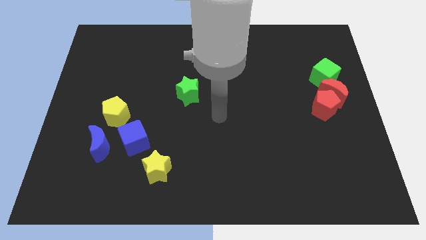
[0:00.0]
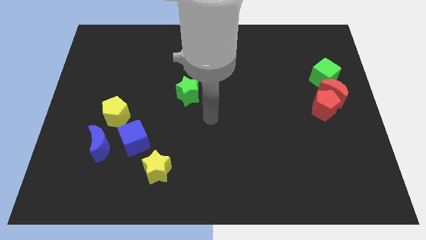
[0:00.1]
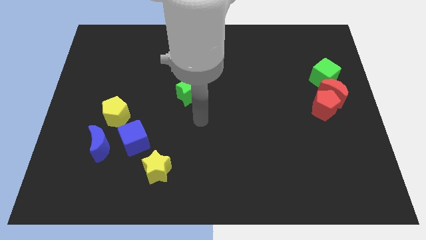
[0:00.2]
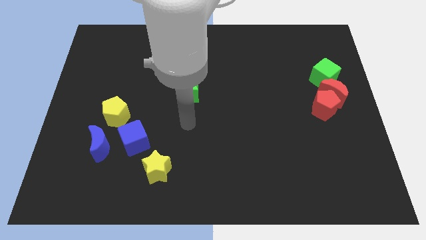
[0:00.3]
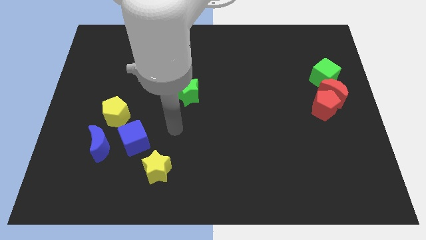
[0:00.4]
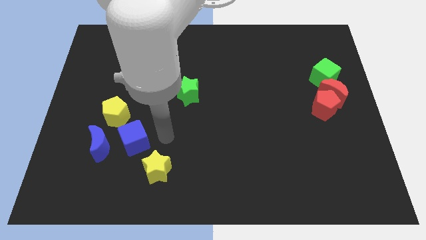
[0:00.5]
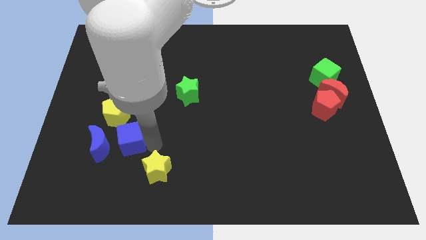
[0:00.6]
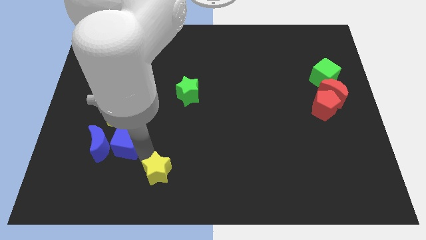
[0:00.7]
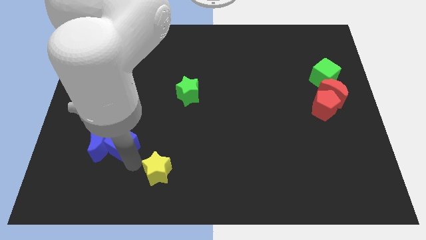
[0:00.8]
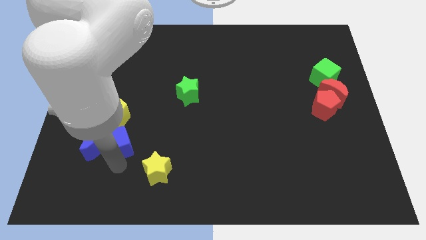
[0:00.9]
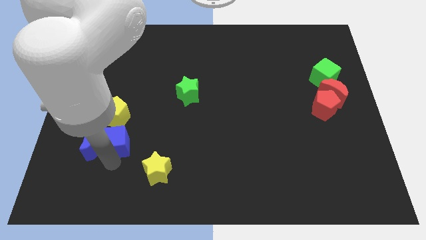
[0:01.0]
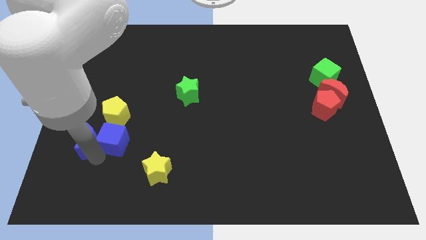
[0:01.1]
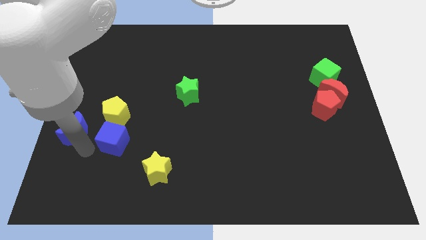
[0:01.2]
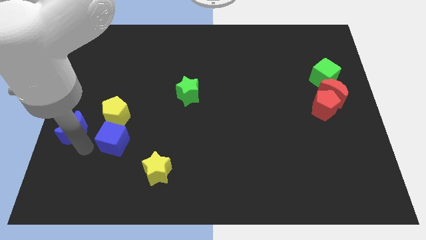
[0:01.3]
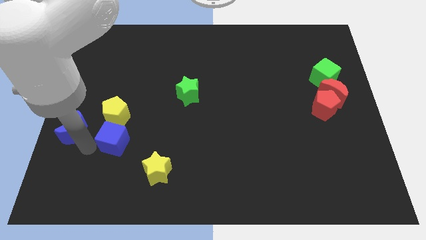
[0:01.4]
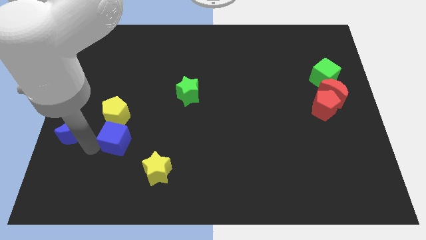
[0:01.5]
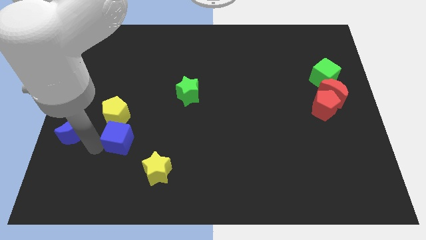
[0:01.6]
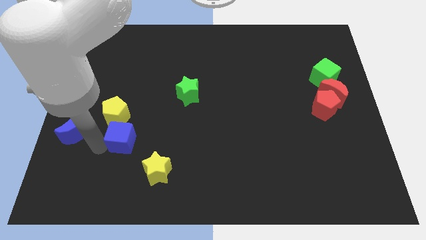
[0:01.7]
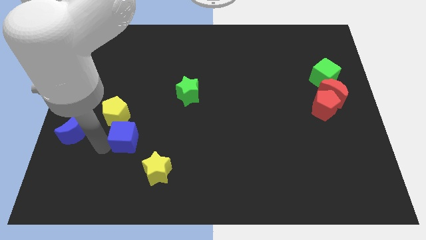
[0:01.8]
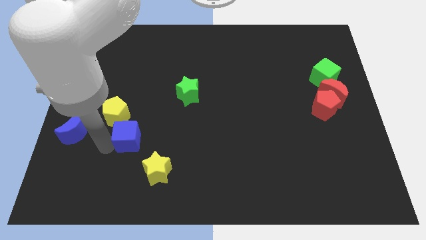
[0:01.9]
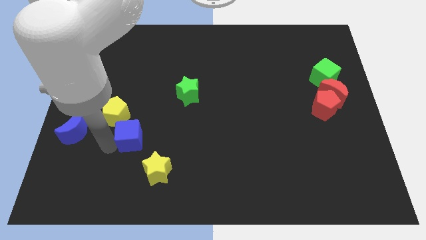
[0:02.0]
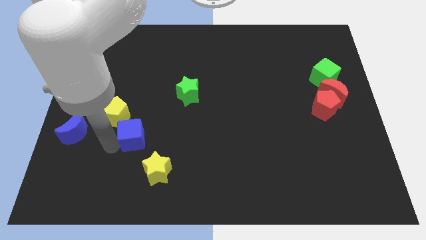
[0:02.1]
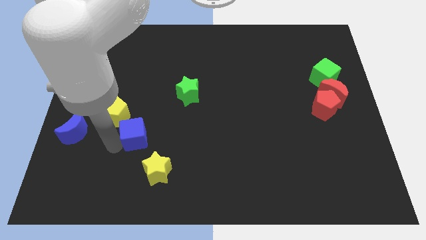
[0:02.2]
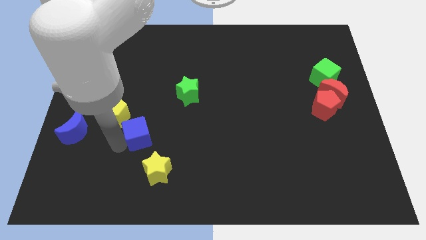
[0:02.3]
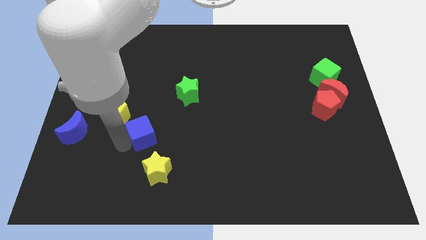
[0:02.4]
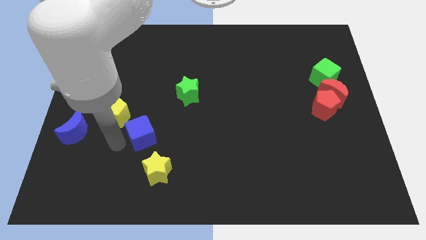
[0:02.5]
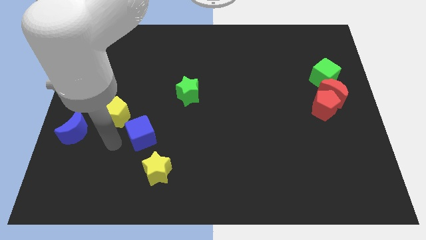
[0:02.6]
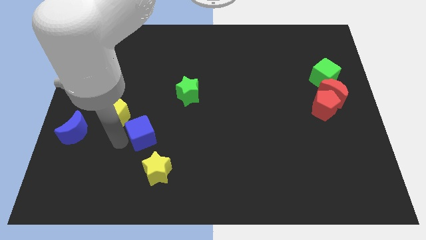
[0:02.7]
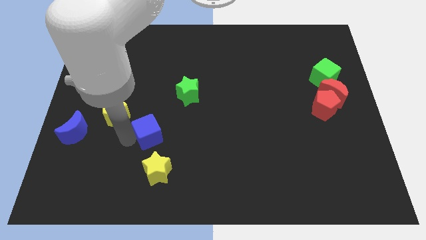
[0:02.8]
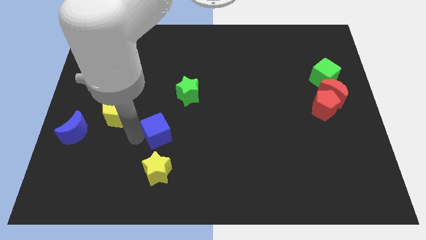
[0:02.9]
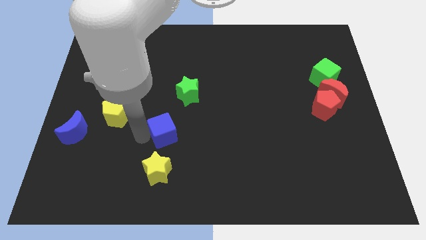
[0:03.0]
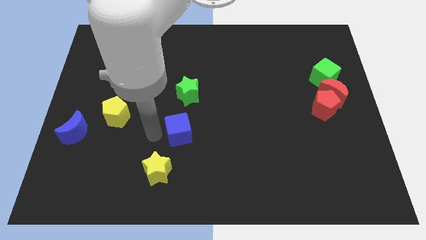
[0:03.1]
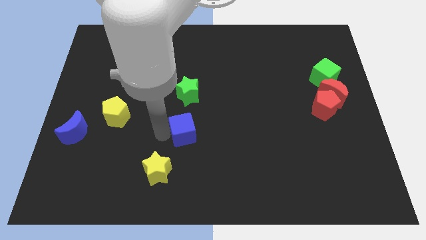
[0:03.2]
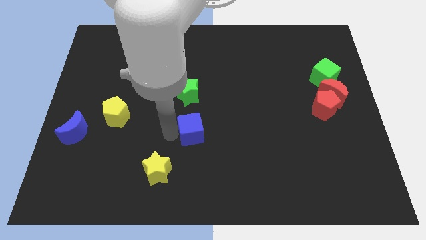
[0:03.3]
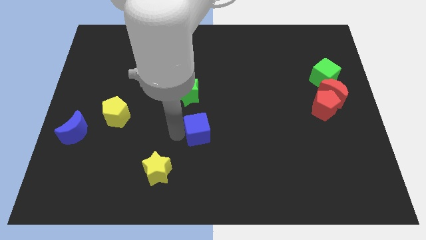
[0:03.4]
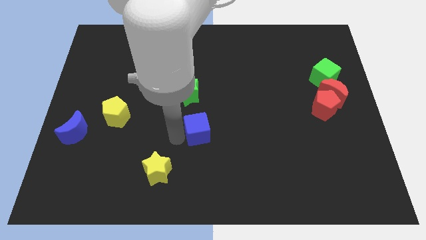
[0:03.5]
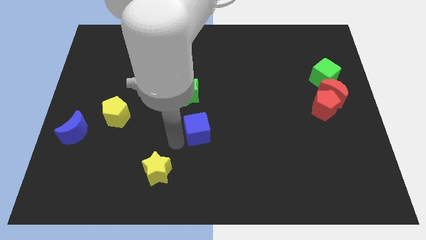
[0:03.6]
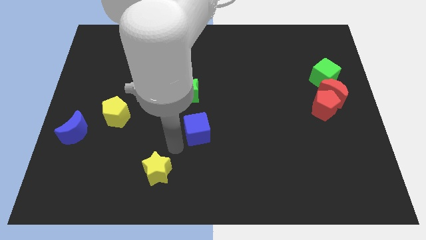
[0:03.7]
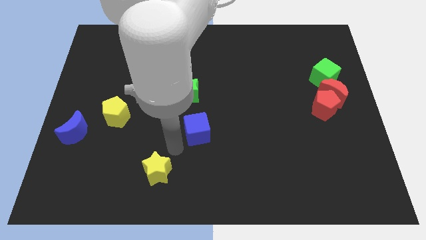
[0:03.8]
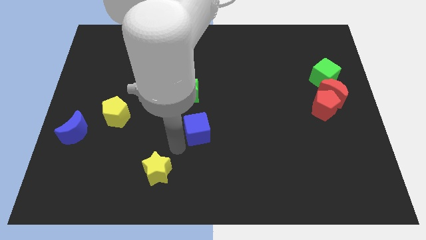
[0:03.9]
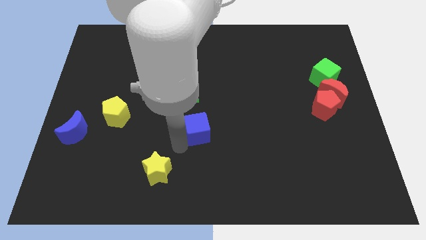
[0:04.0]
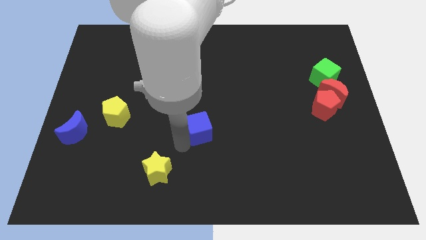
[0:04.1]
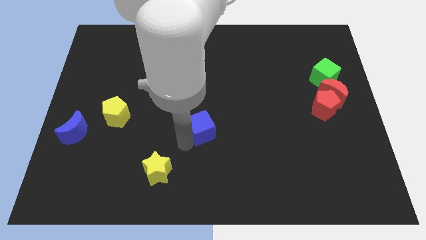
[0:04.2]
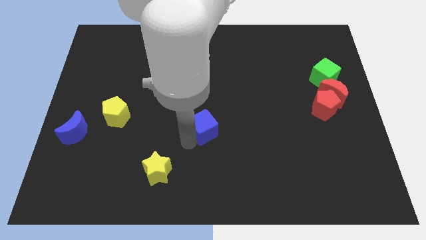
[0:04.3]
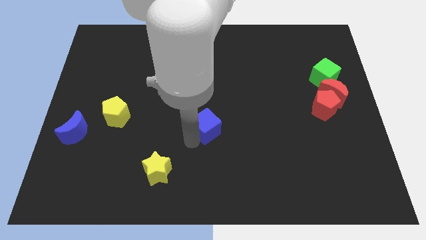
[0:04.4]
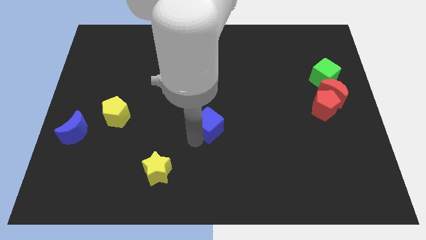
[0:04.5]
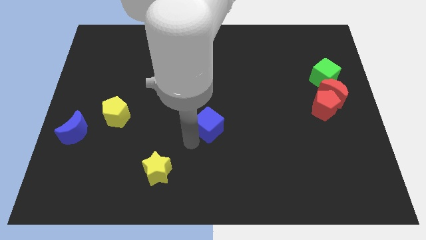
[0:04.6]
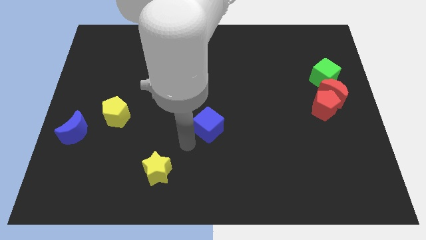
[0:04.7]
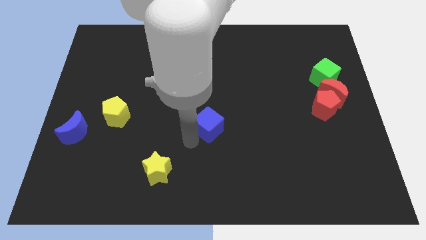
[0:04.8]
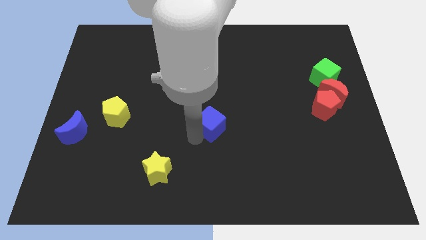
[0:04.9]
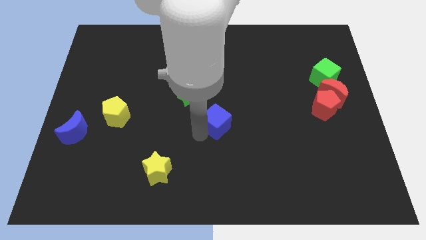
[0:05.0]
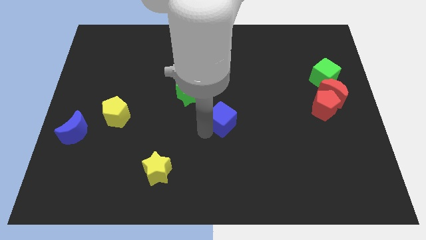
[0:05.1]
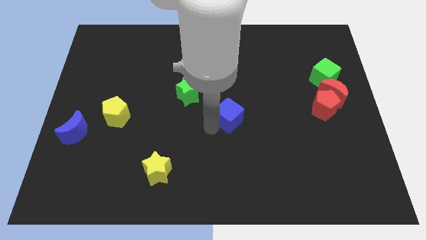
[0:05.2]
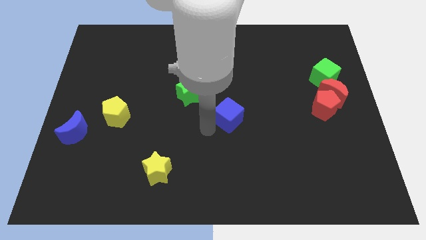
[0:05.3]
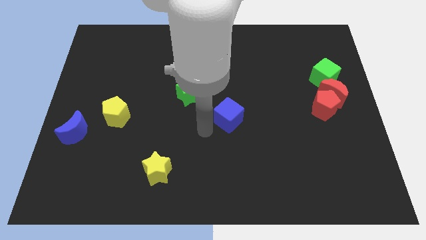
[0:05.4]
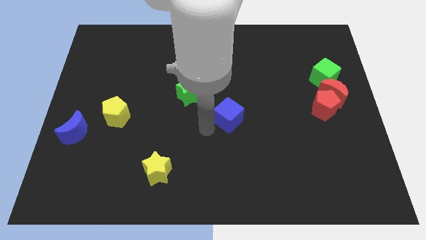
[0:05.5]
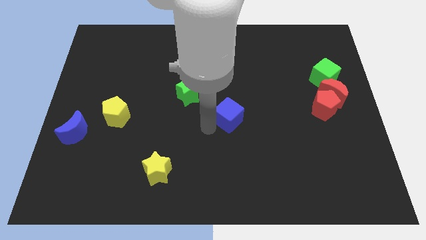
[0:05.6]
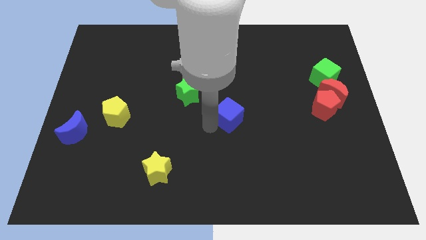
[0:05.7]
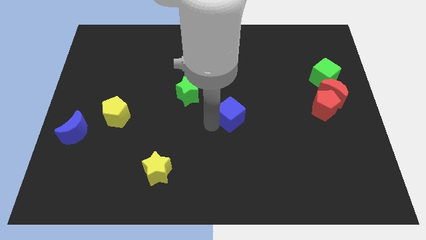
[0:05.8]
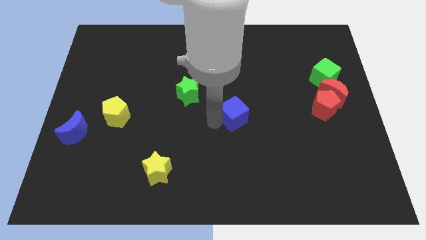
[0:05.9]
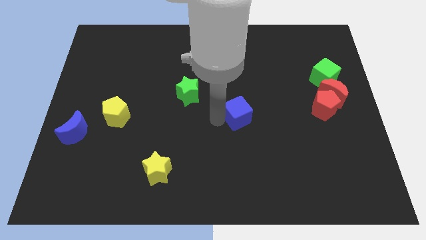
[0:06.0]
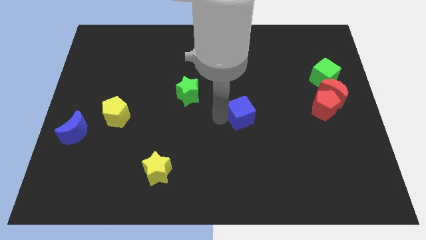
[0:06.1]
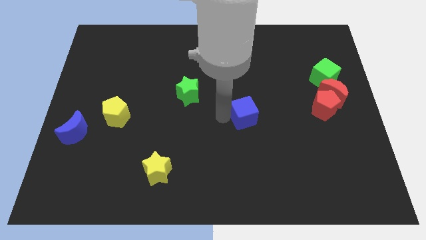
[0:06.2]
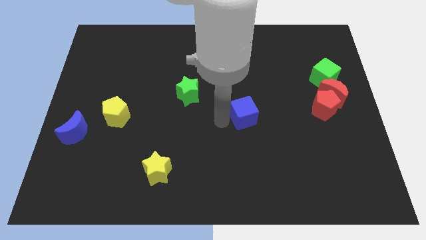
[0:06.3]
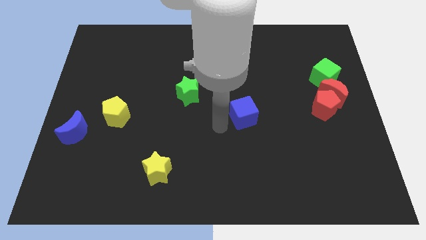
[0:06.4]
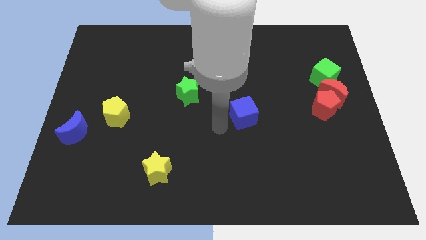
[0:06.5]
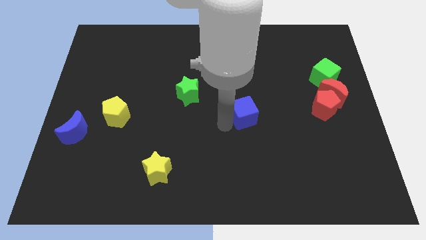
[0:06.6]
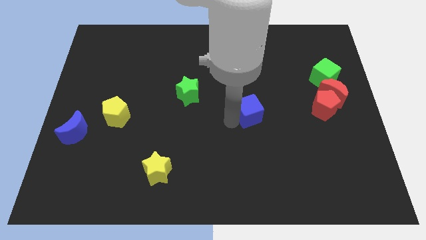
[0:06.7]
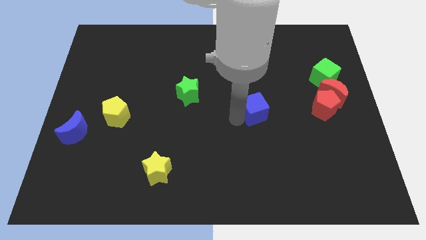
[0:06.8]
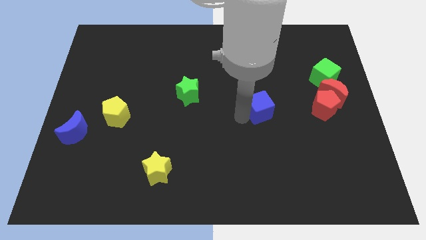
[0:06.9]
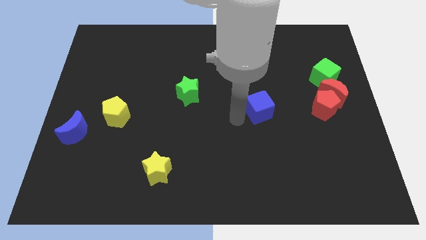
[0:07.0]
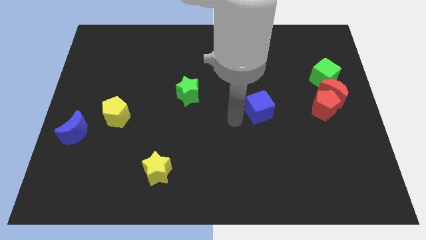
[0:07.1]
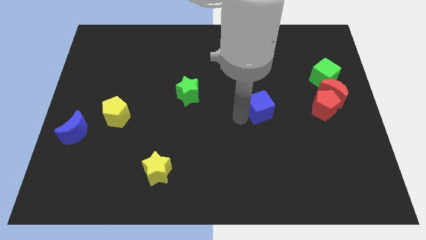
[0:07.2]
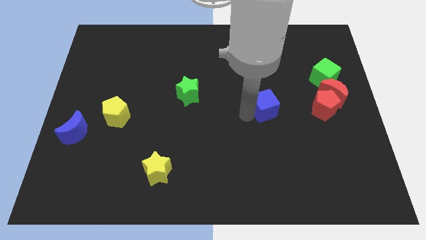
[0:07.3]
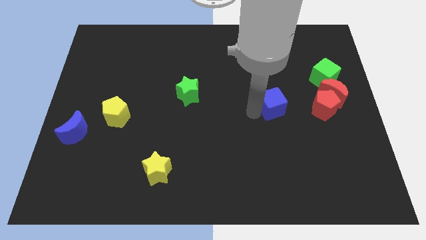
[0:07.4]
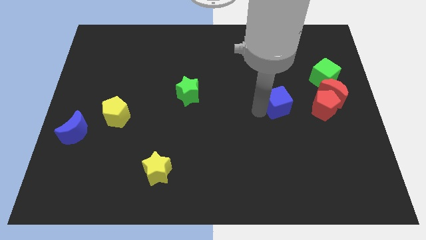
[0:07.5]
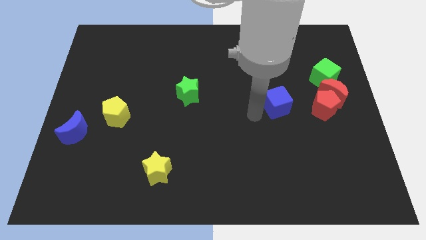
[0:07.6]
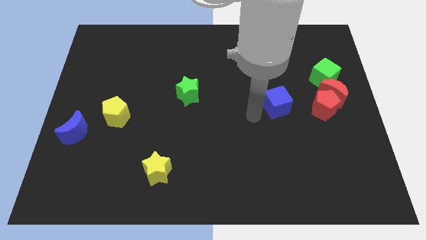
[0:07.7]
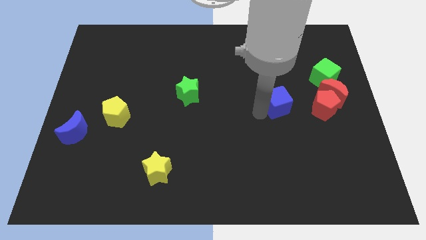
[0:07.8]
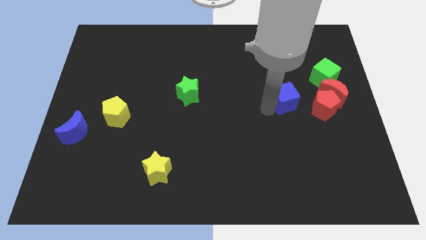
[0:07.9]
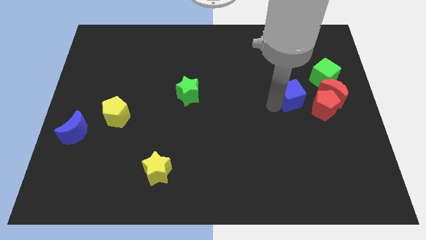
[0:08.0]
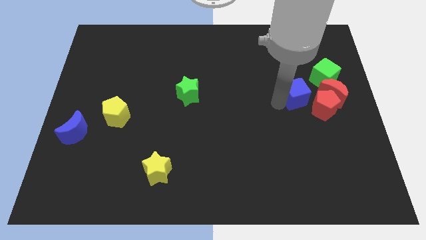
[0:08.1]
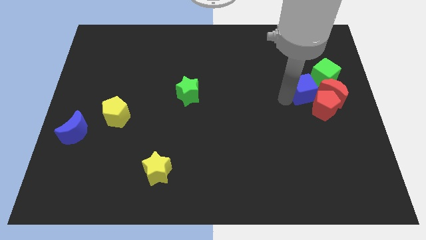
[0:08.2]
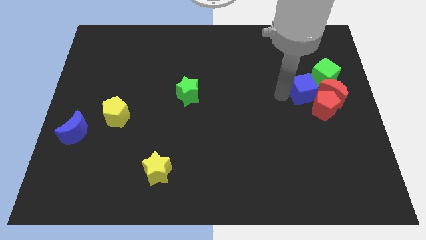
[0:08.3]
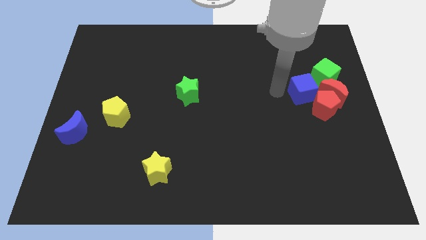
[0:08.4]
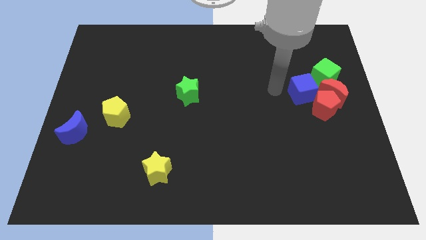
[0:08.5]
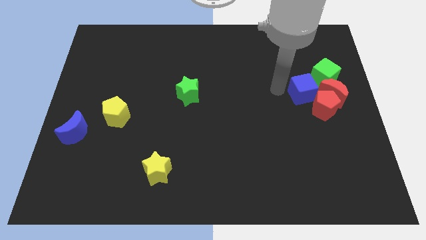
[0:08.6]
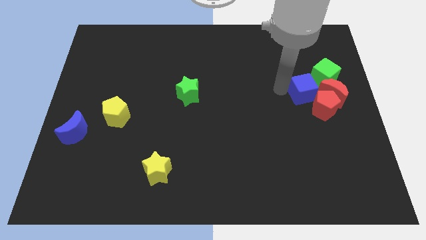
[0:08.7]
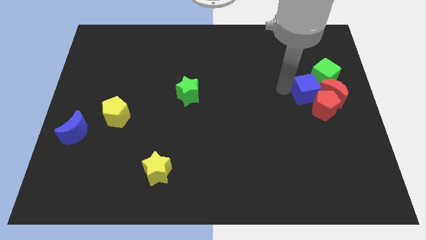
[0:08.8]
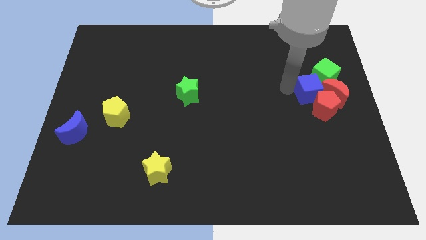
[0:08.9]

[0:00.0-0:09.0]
put the blue cube towards the red moon
